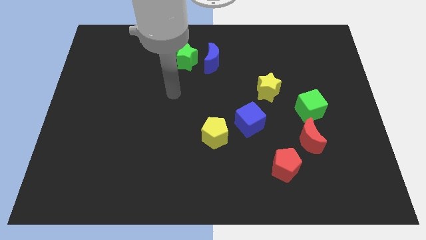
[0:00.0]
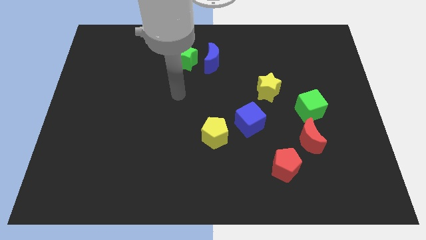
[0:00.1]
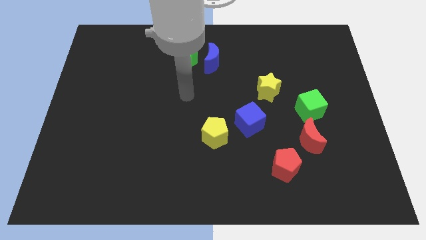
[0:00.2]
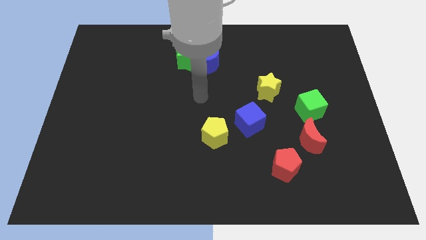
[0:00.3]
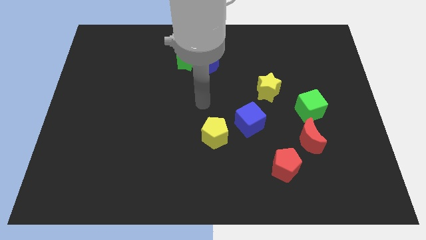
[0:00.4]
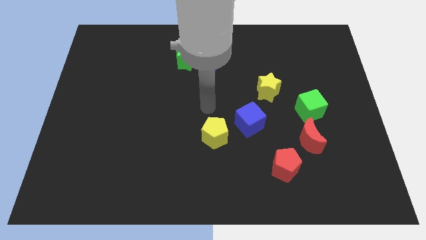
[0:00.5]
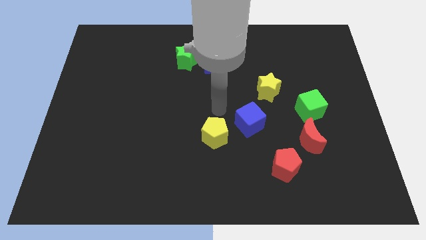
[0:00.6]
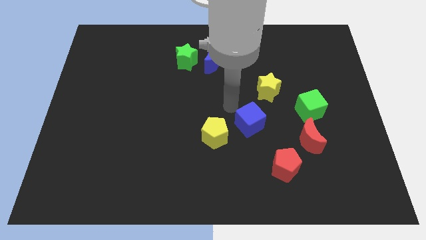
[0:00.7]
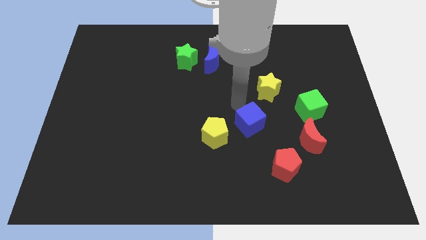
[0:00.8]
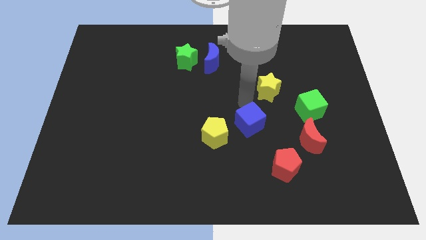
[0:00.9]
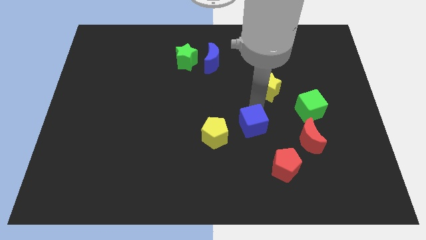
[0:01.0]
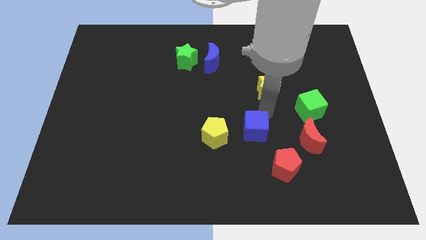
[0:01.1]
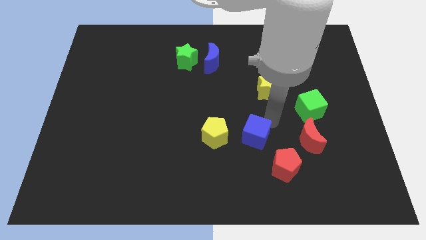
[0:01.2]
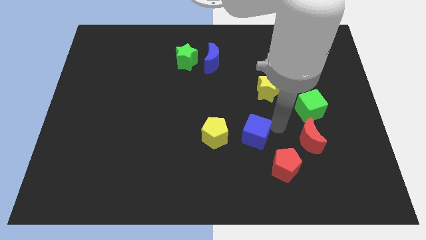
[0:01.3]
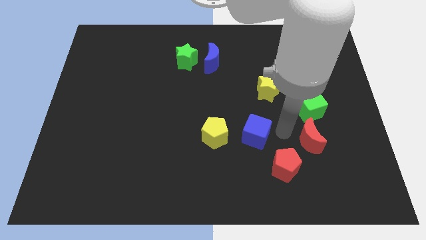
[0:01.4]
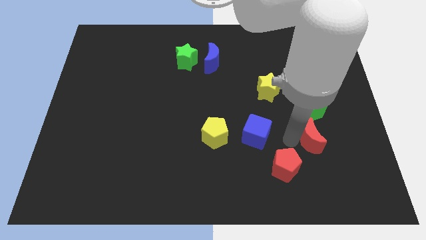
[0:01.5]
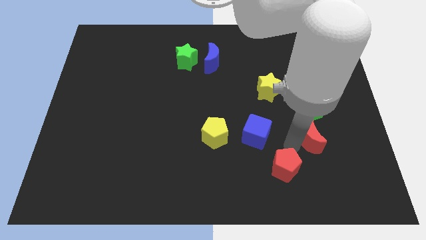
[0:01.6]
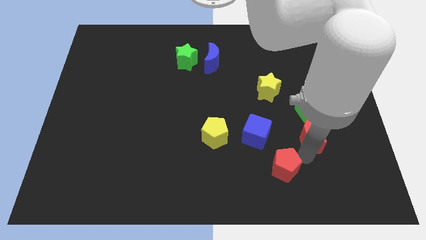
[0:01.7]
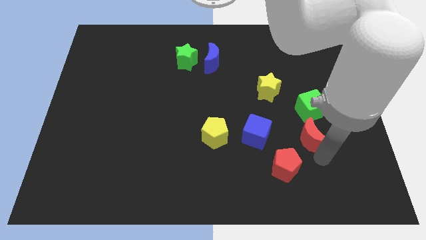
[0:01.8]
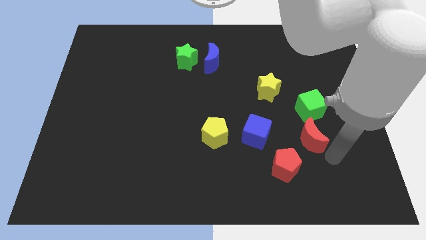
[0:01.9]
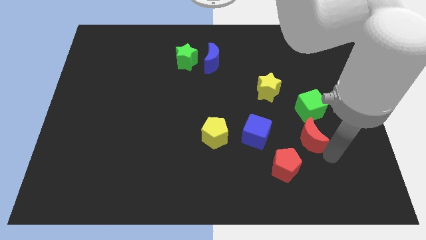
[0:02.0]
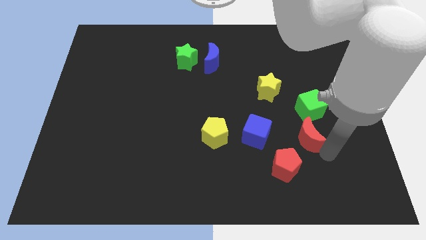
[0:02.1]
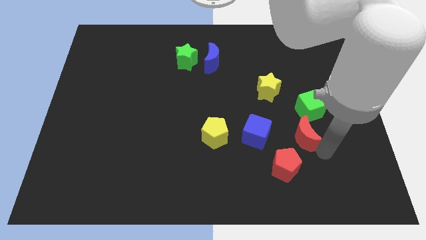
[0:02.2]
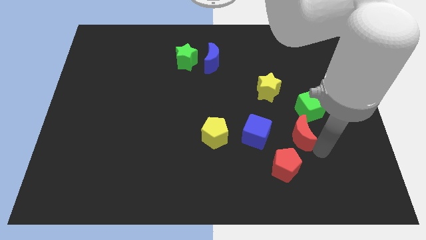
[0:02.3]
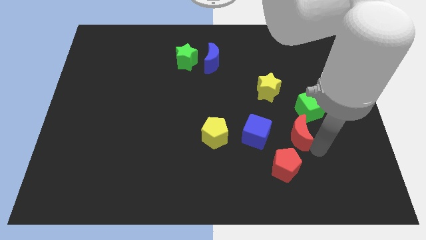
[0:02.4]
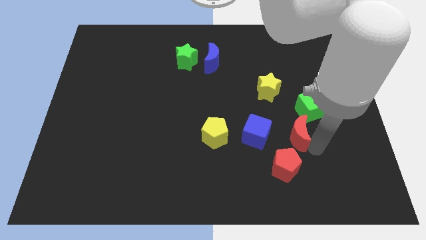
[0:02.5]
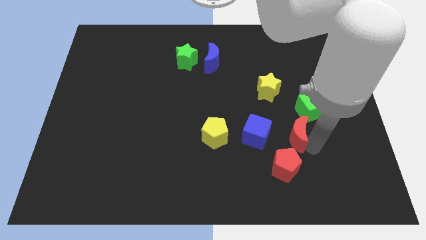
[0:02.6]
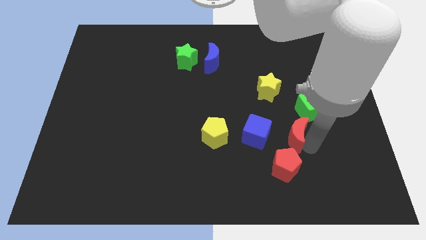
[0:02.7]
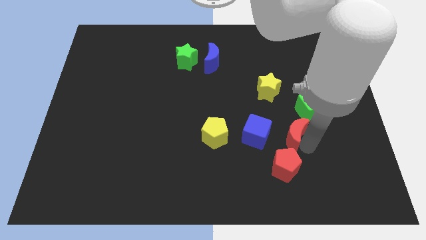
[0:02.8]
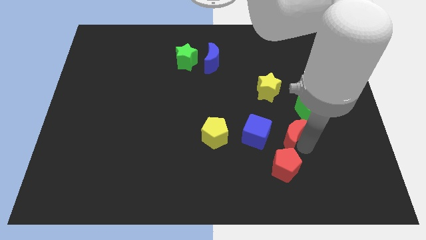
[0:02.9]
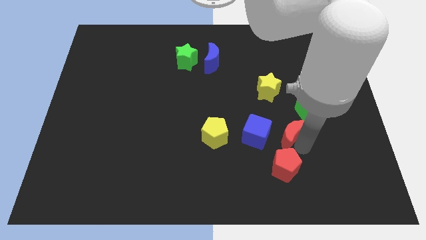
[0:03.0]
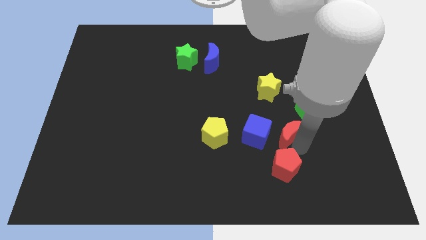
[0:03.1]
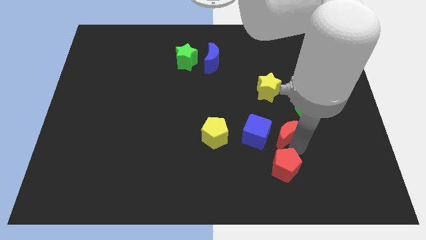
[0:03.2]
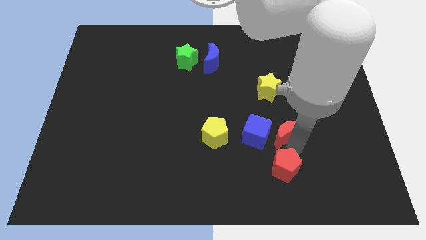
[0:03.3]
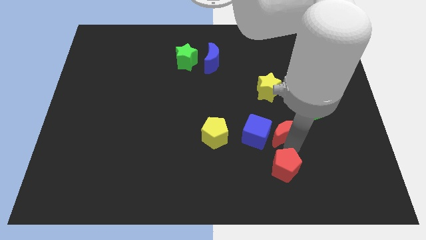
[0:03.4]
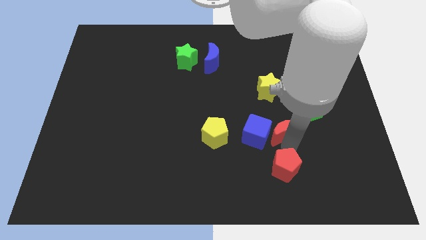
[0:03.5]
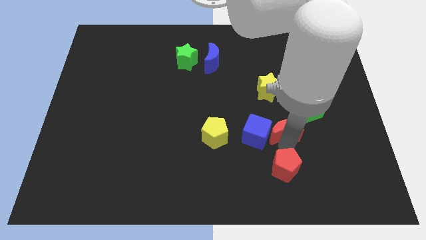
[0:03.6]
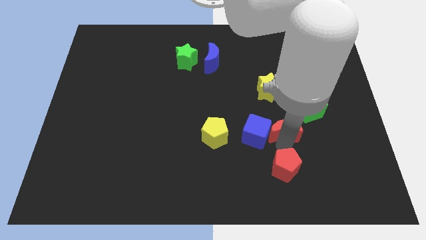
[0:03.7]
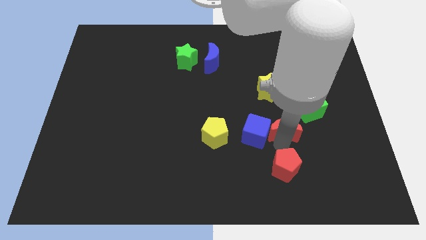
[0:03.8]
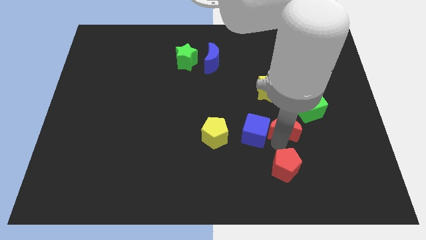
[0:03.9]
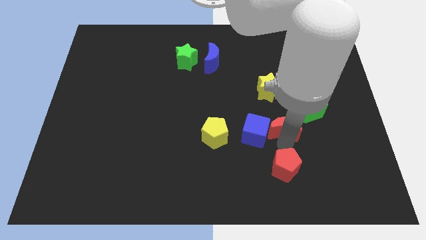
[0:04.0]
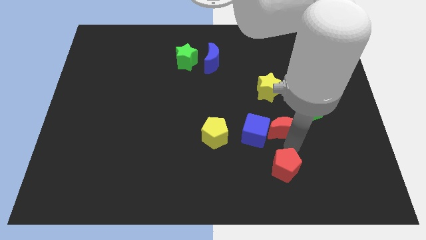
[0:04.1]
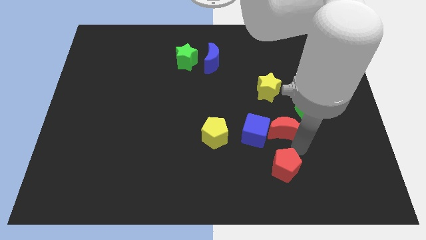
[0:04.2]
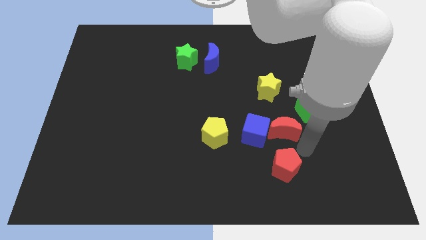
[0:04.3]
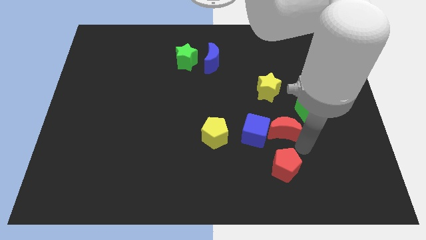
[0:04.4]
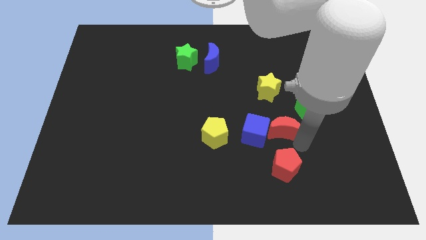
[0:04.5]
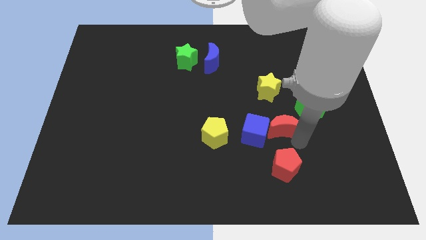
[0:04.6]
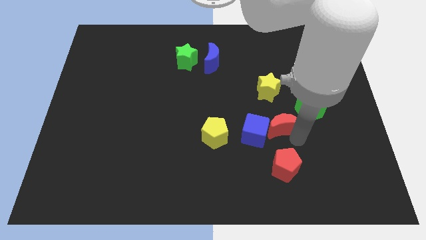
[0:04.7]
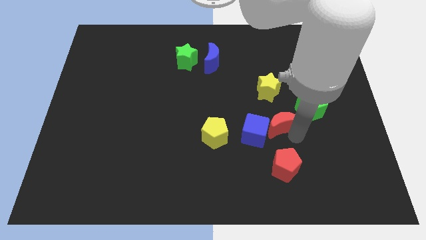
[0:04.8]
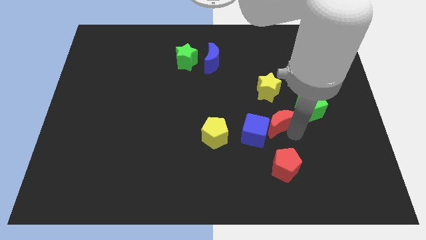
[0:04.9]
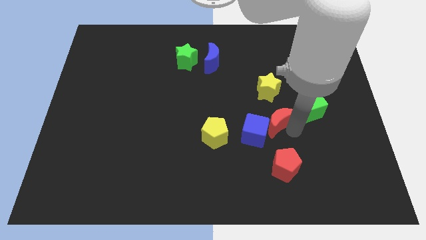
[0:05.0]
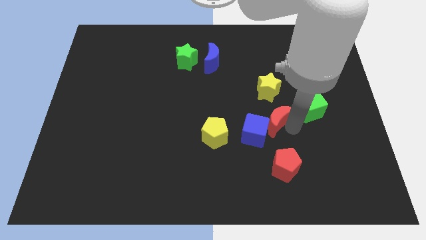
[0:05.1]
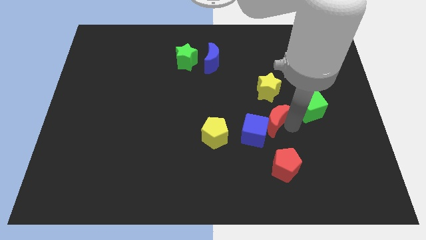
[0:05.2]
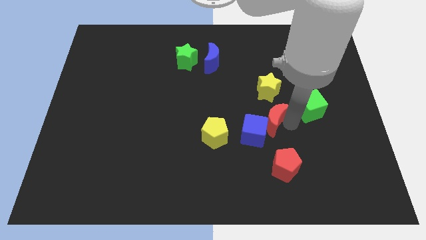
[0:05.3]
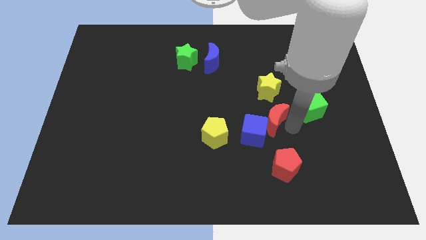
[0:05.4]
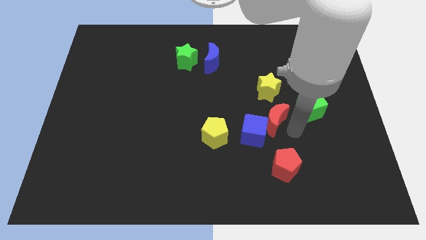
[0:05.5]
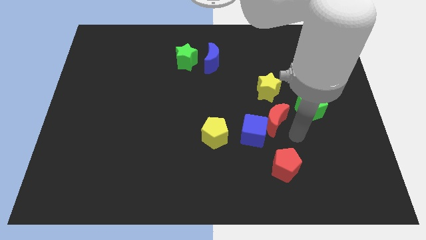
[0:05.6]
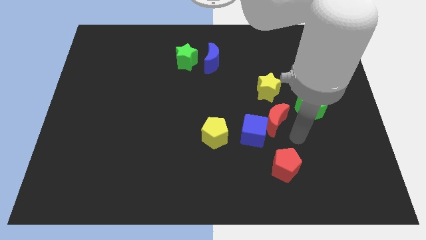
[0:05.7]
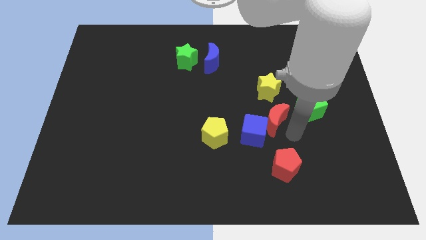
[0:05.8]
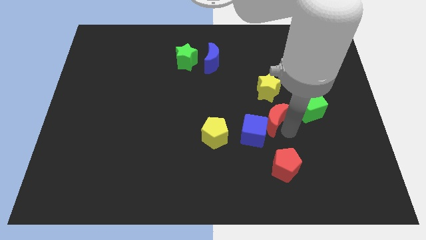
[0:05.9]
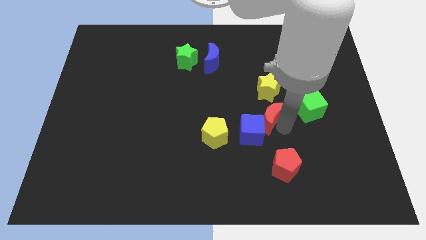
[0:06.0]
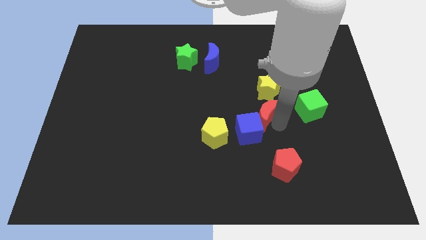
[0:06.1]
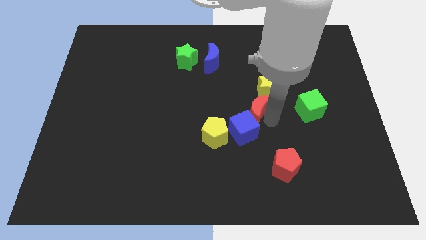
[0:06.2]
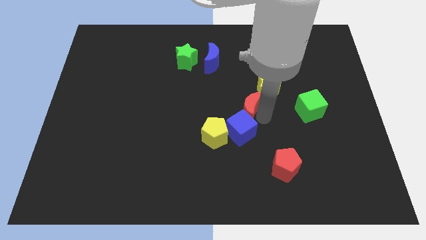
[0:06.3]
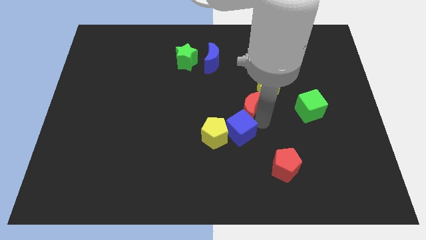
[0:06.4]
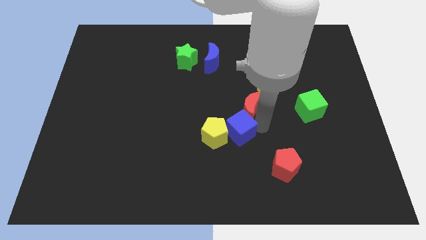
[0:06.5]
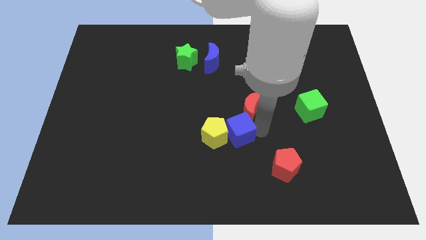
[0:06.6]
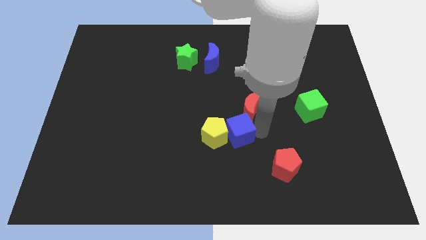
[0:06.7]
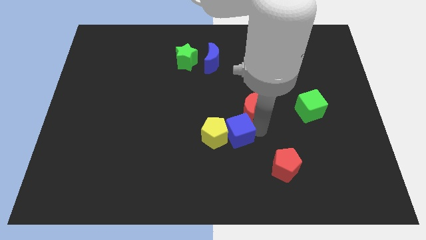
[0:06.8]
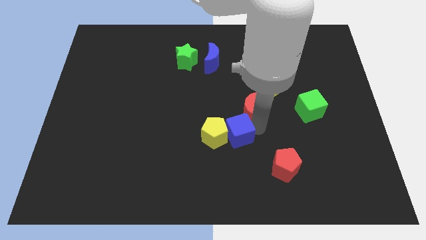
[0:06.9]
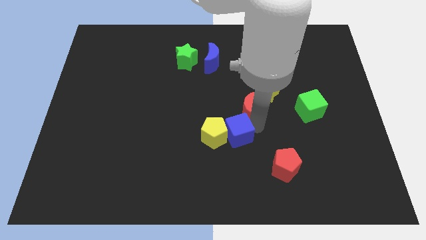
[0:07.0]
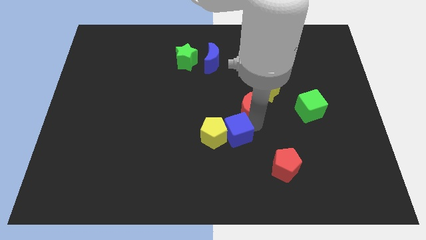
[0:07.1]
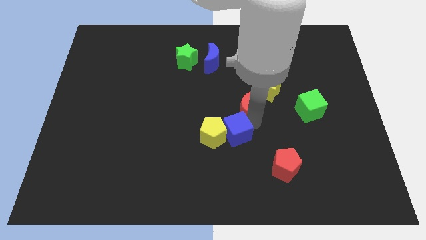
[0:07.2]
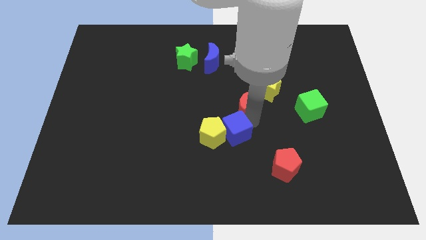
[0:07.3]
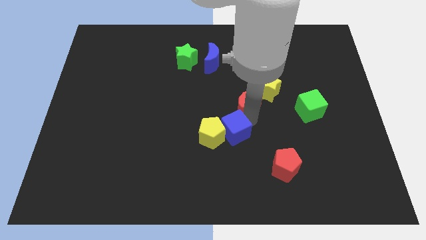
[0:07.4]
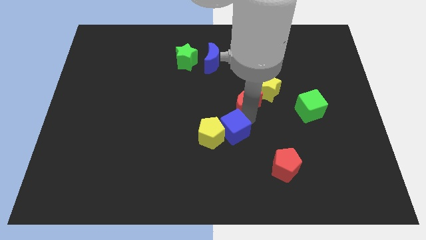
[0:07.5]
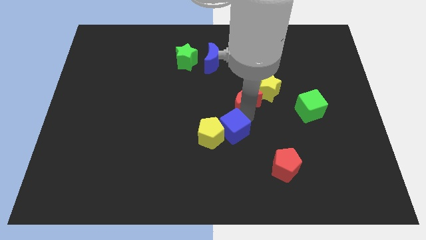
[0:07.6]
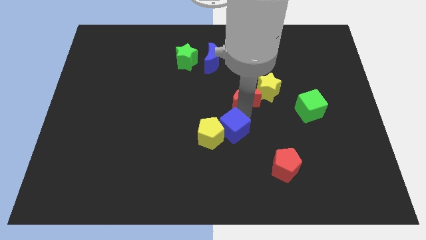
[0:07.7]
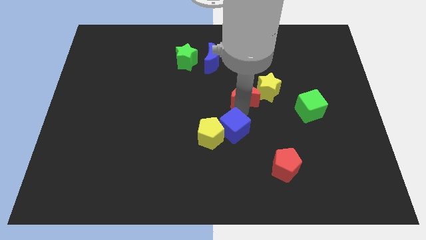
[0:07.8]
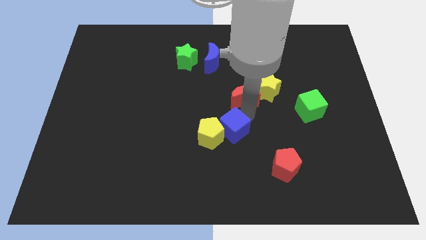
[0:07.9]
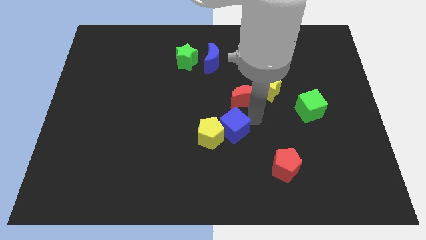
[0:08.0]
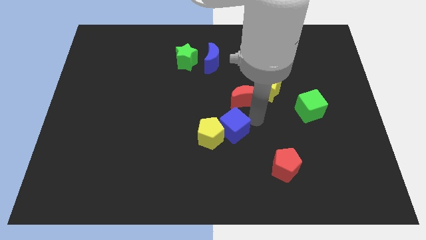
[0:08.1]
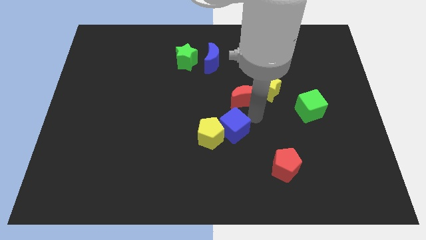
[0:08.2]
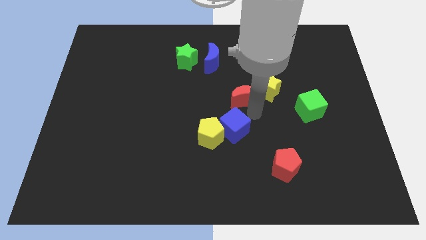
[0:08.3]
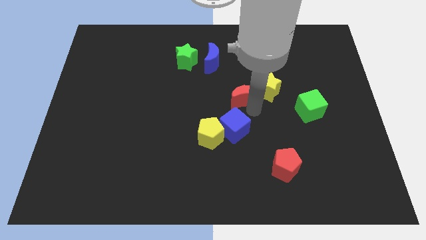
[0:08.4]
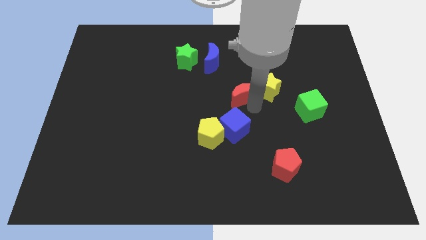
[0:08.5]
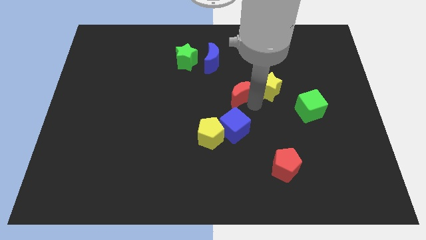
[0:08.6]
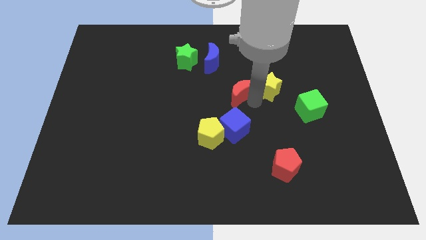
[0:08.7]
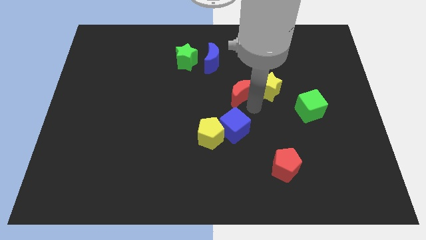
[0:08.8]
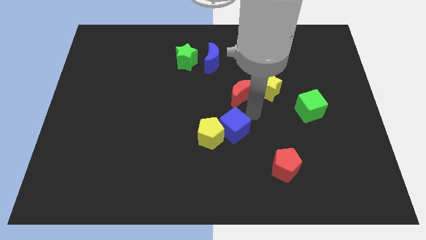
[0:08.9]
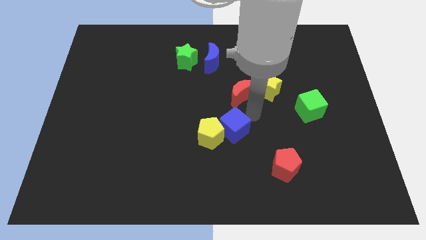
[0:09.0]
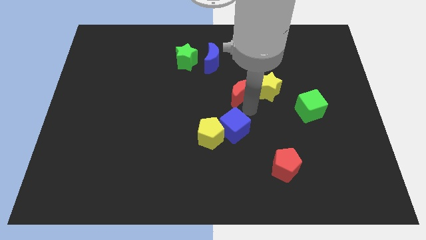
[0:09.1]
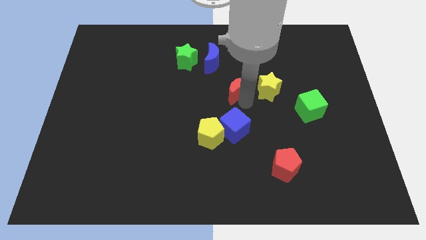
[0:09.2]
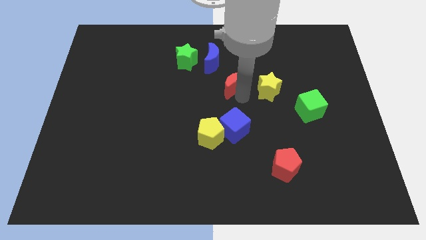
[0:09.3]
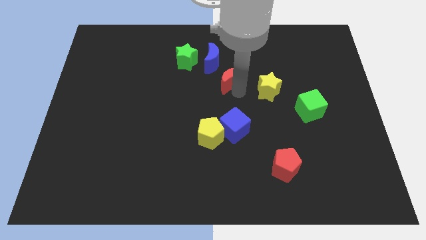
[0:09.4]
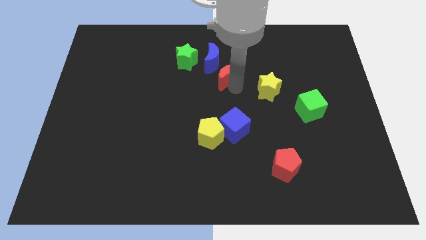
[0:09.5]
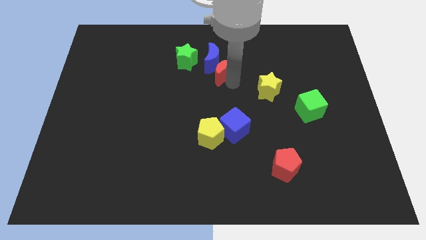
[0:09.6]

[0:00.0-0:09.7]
put the red moon towards the blue moon
